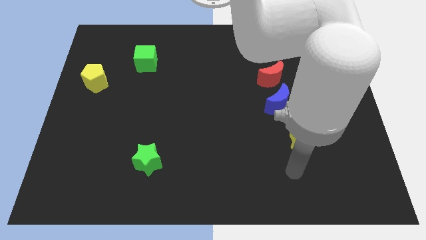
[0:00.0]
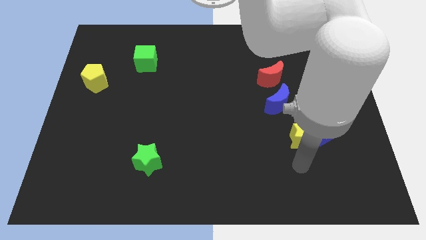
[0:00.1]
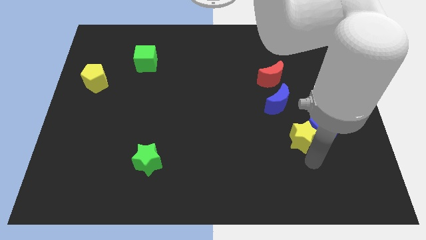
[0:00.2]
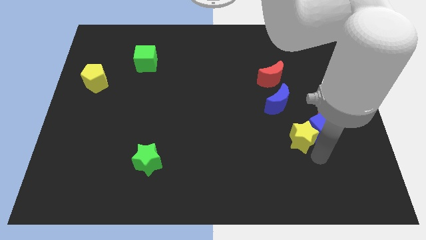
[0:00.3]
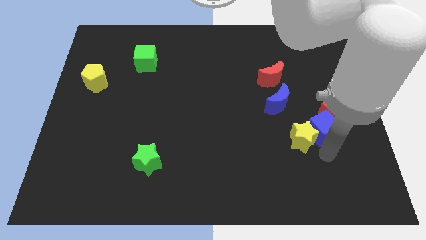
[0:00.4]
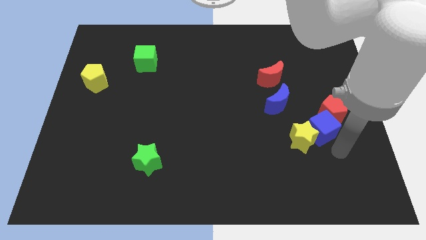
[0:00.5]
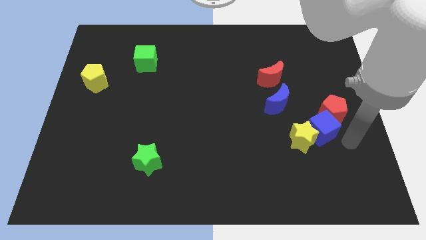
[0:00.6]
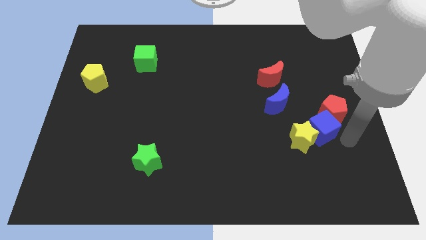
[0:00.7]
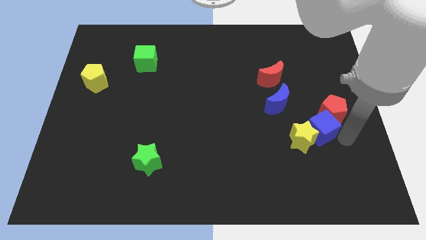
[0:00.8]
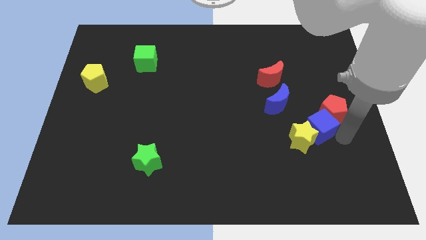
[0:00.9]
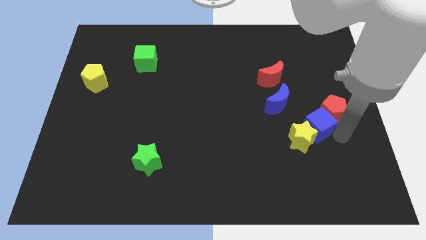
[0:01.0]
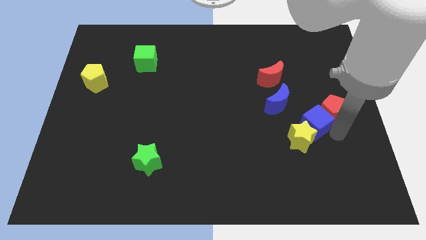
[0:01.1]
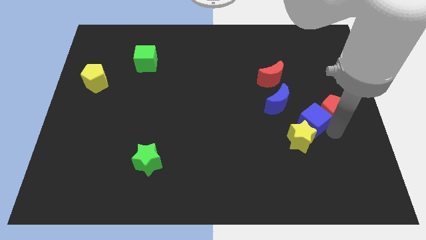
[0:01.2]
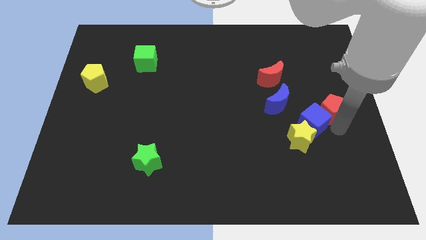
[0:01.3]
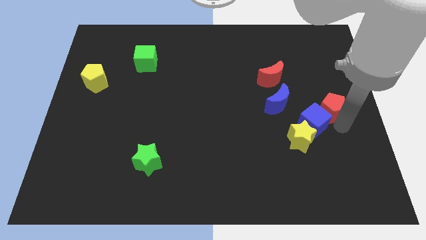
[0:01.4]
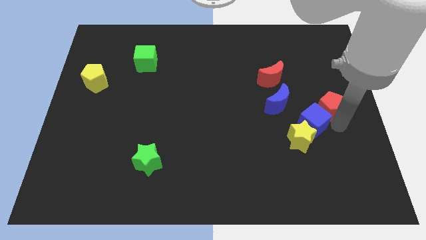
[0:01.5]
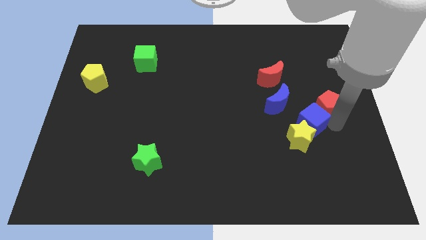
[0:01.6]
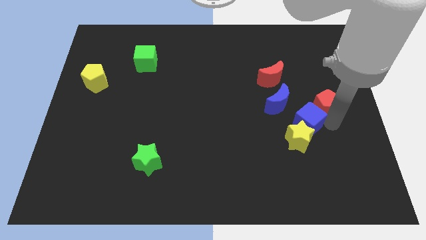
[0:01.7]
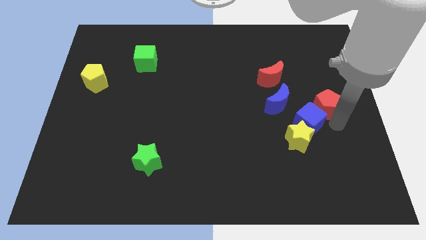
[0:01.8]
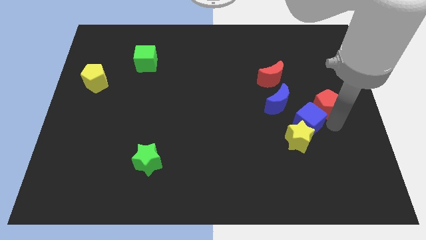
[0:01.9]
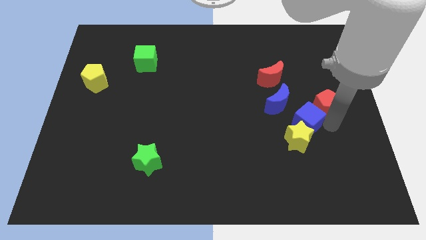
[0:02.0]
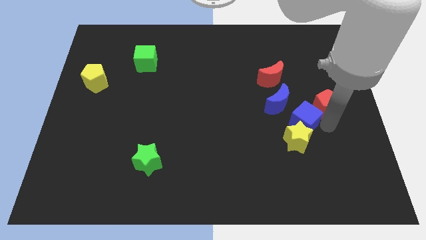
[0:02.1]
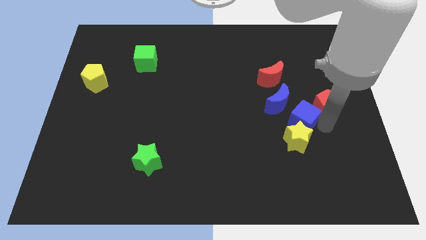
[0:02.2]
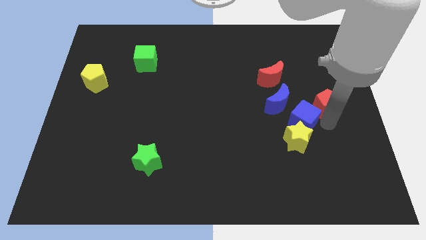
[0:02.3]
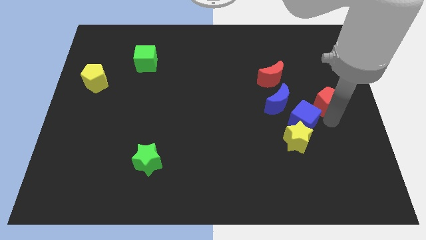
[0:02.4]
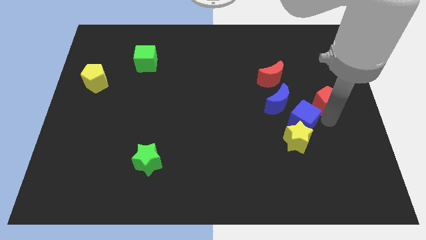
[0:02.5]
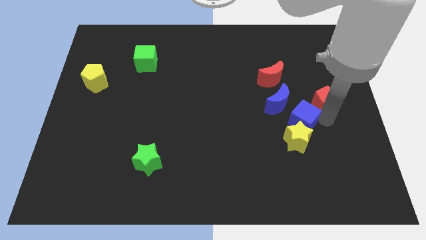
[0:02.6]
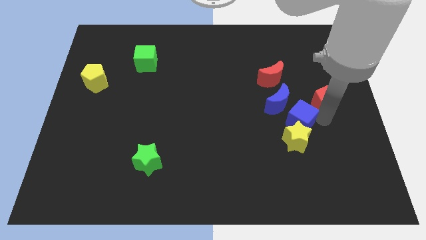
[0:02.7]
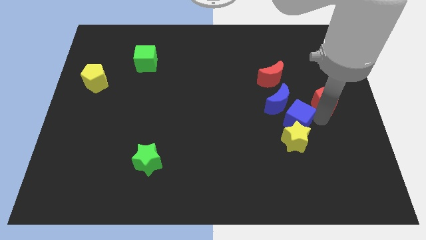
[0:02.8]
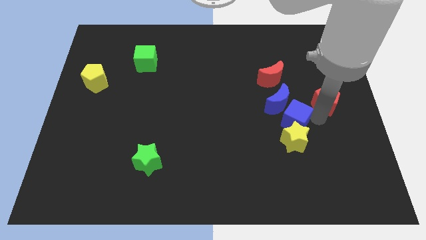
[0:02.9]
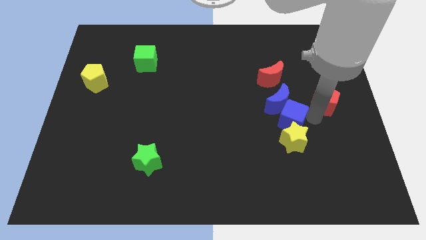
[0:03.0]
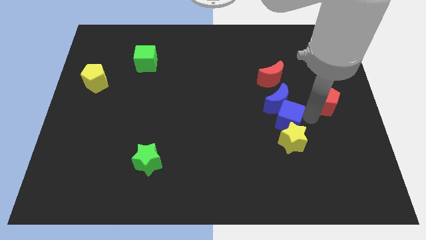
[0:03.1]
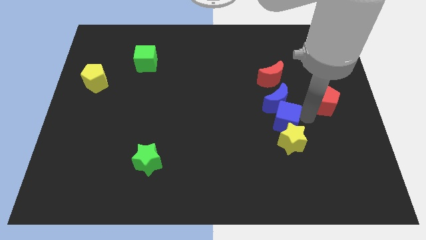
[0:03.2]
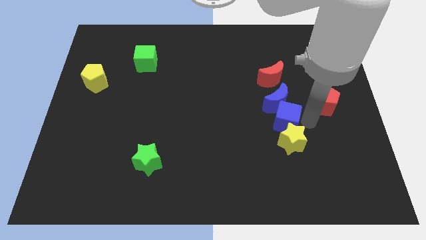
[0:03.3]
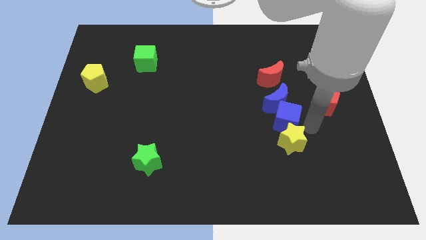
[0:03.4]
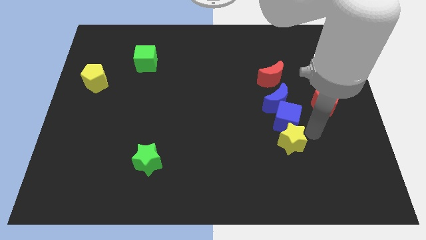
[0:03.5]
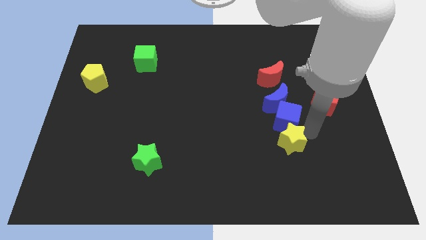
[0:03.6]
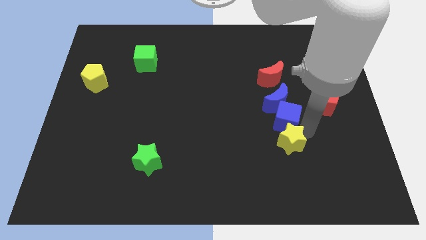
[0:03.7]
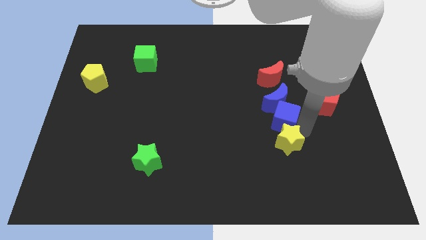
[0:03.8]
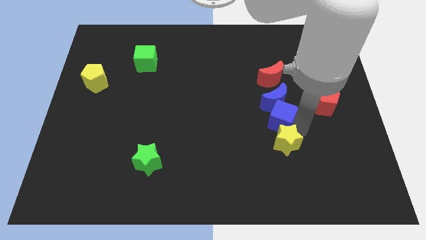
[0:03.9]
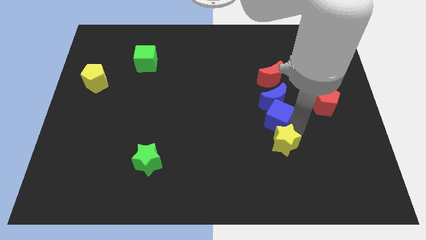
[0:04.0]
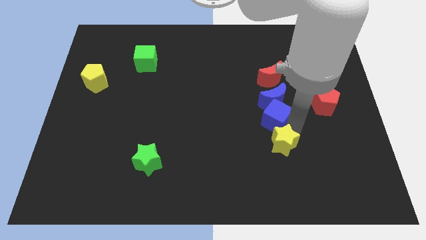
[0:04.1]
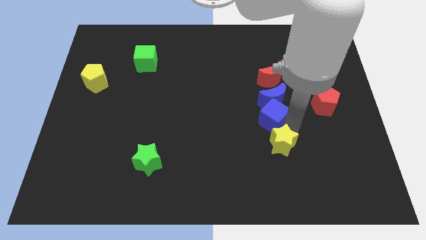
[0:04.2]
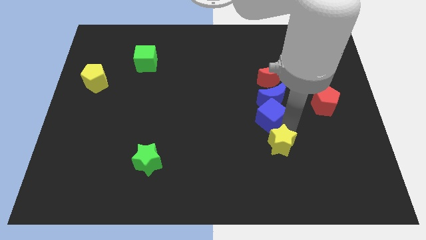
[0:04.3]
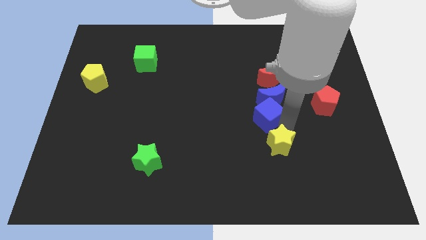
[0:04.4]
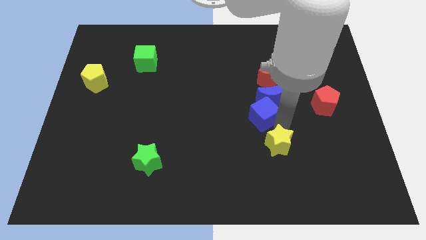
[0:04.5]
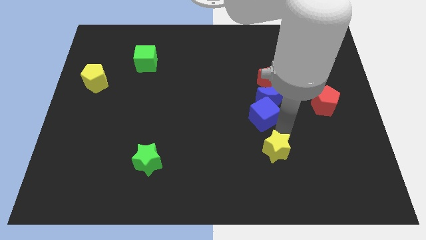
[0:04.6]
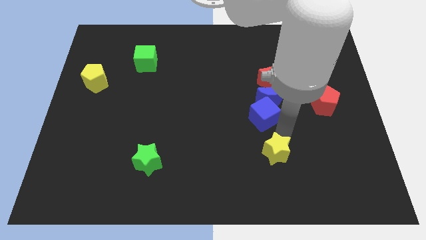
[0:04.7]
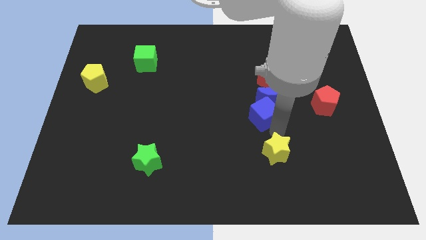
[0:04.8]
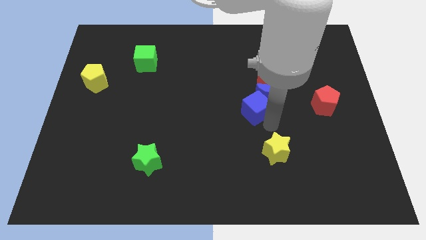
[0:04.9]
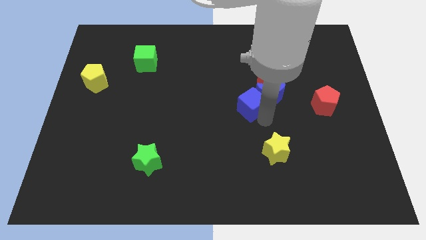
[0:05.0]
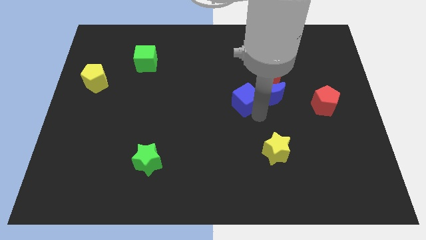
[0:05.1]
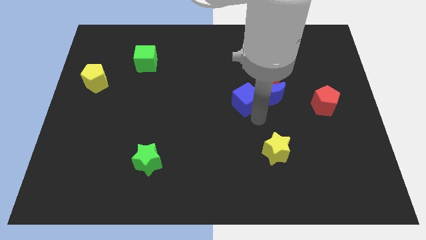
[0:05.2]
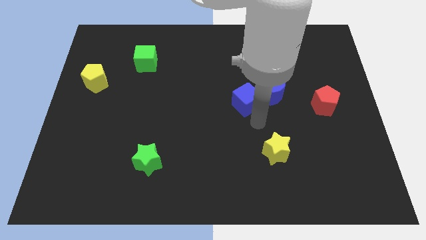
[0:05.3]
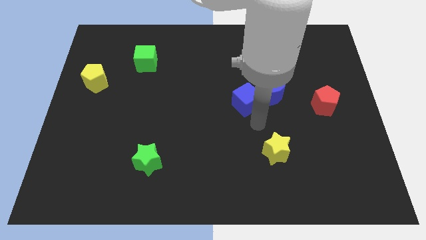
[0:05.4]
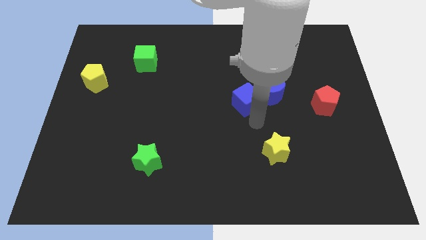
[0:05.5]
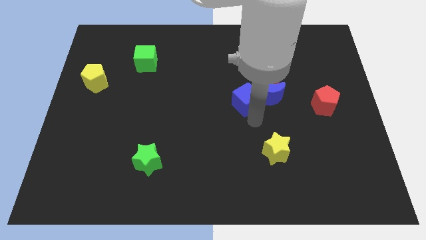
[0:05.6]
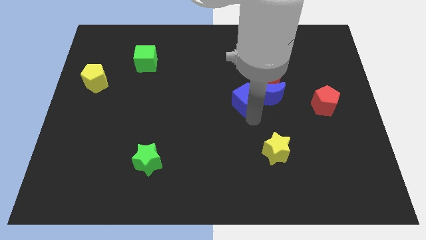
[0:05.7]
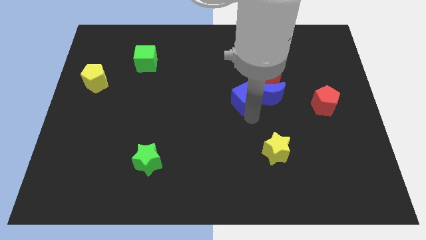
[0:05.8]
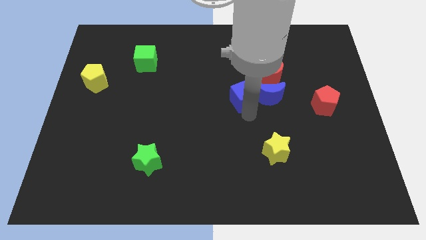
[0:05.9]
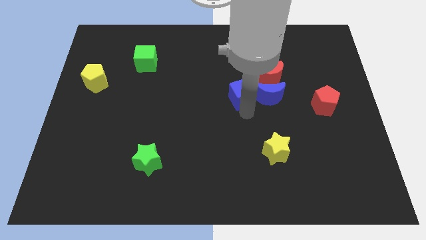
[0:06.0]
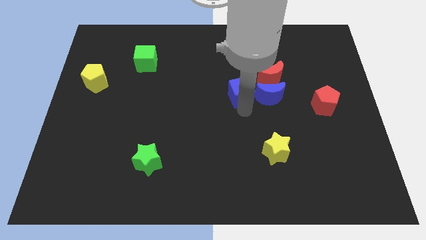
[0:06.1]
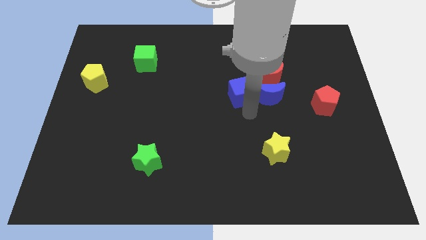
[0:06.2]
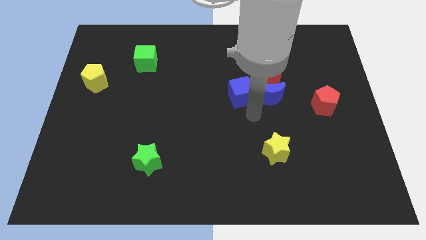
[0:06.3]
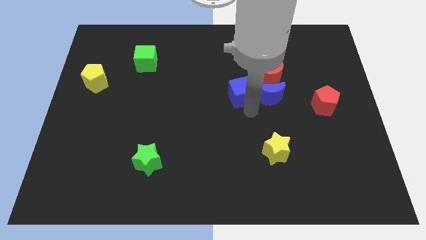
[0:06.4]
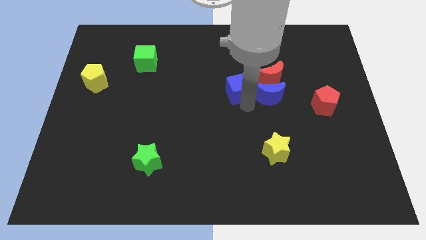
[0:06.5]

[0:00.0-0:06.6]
slide the blue cube to the left of the red moon
